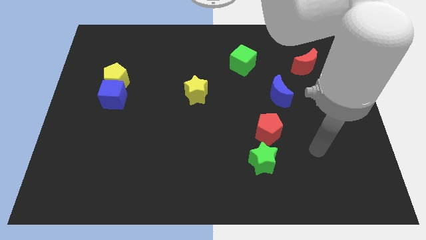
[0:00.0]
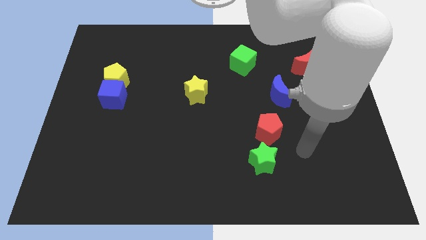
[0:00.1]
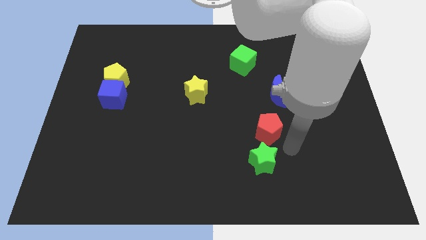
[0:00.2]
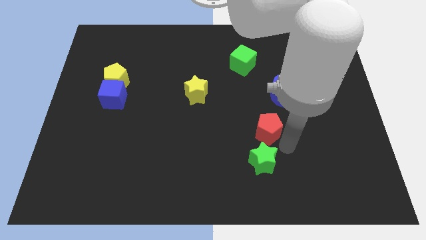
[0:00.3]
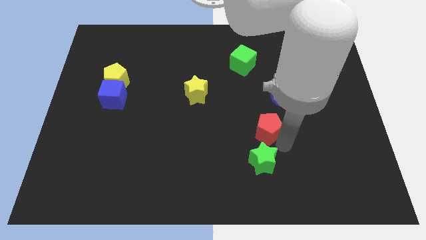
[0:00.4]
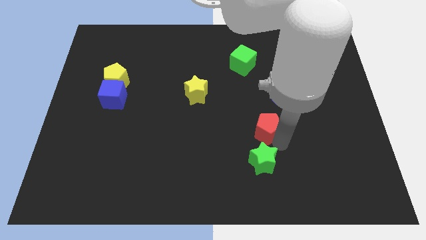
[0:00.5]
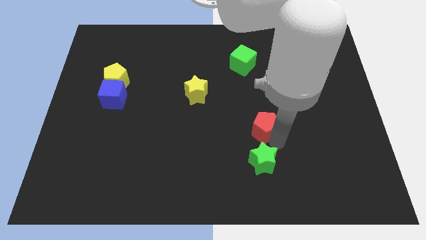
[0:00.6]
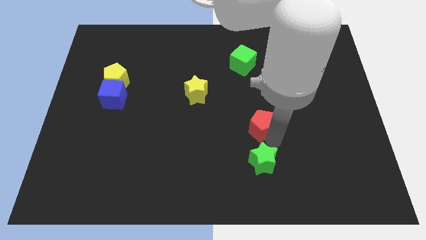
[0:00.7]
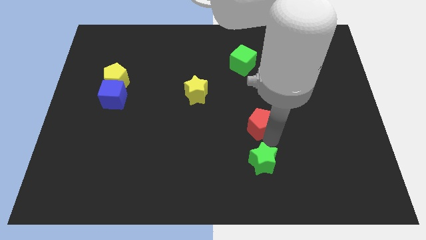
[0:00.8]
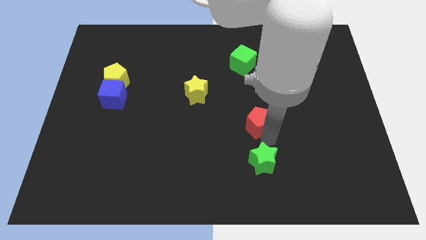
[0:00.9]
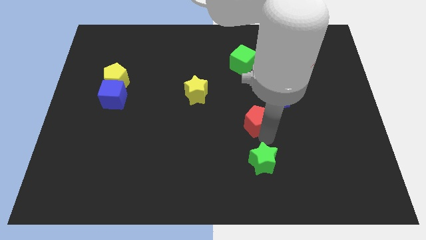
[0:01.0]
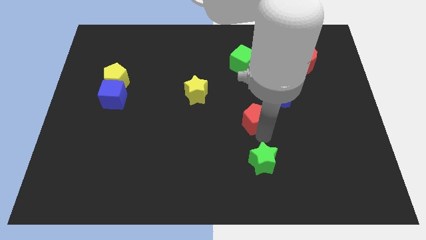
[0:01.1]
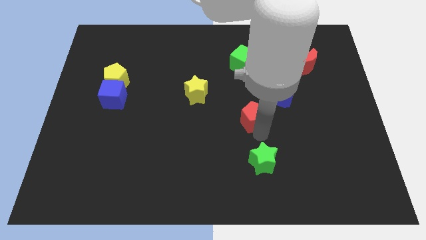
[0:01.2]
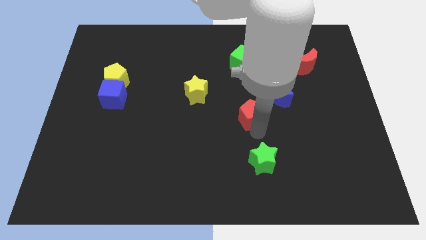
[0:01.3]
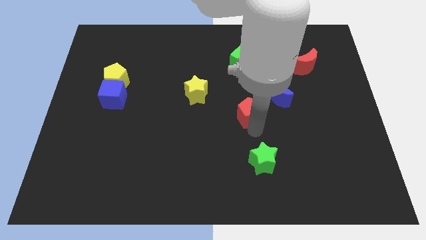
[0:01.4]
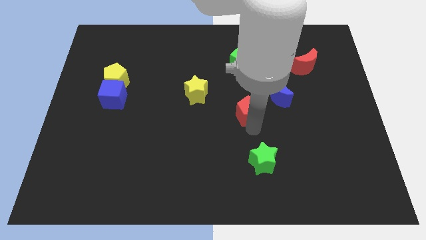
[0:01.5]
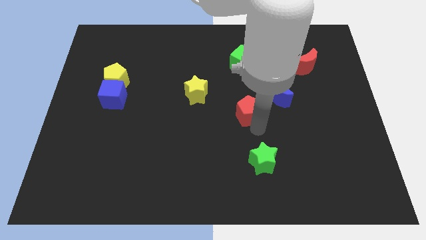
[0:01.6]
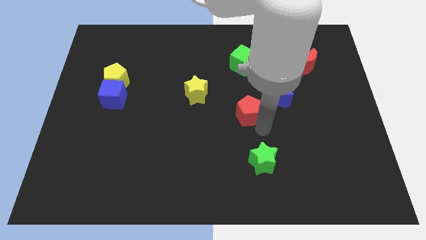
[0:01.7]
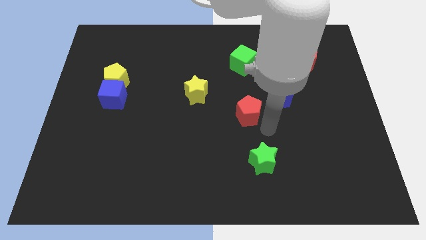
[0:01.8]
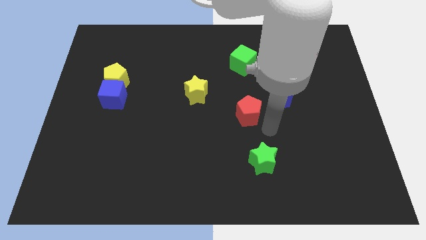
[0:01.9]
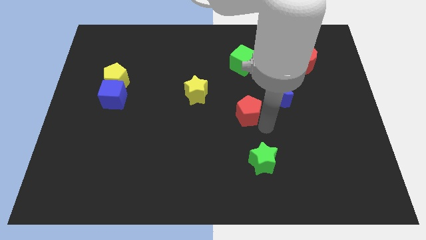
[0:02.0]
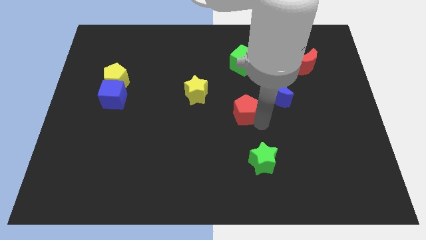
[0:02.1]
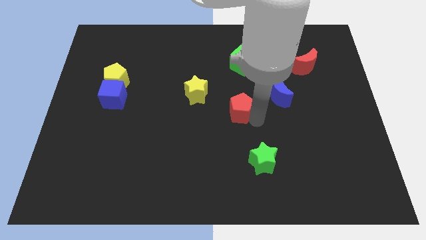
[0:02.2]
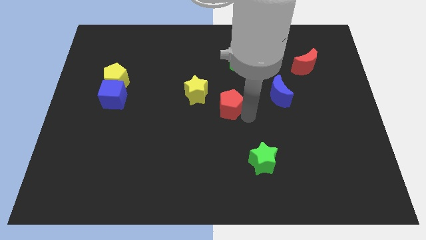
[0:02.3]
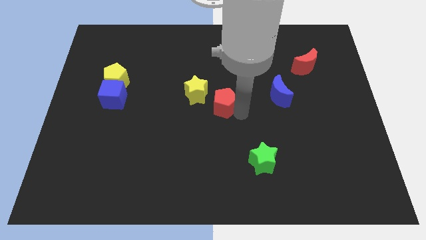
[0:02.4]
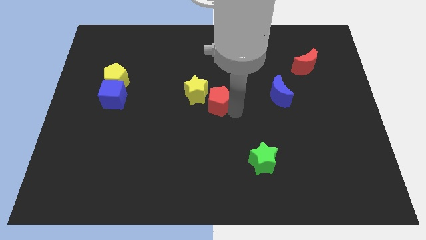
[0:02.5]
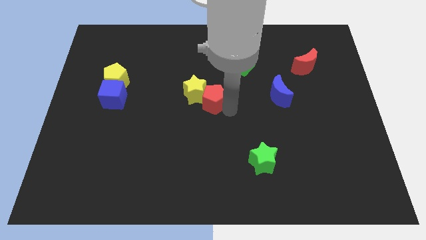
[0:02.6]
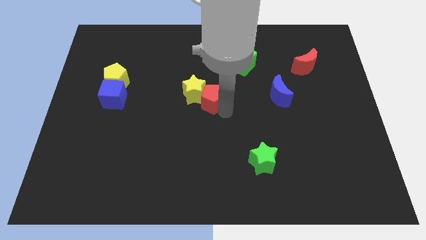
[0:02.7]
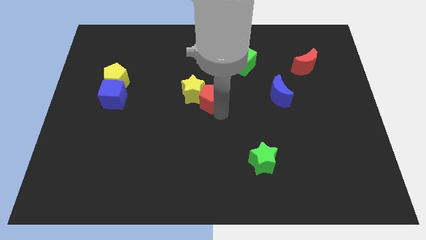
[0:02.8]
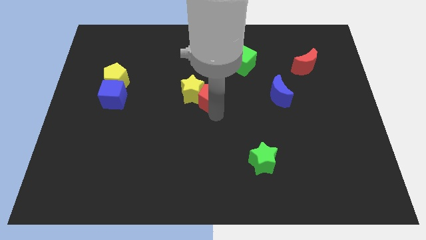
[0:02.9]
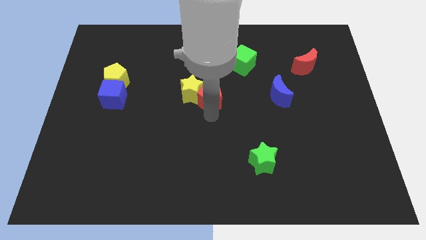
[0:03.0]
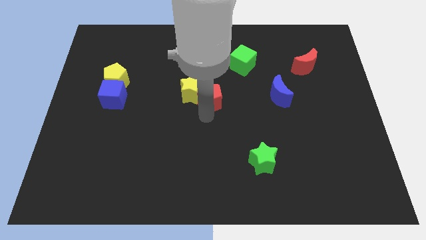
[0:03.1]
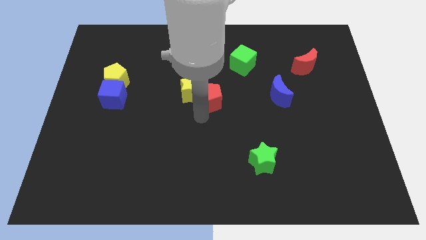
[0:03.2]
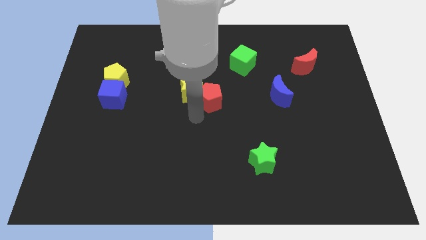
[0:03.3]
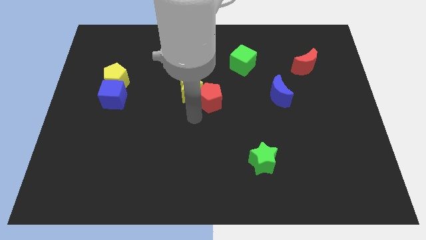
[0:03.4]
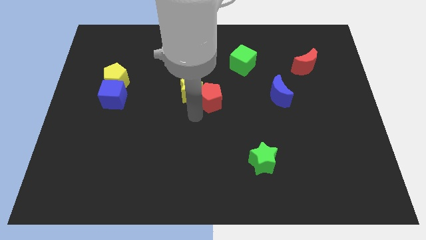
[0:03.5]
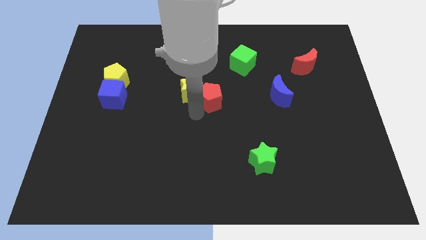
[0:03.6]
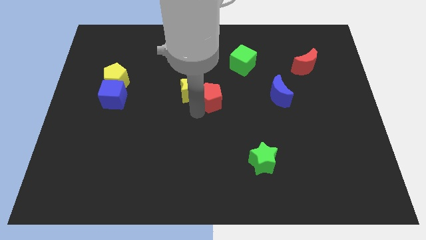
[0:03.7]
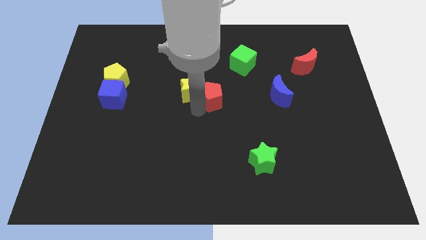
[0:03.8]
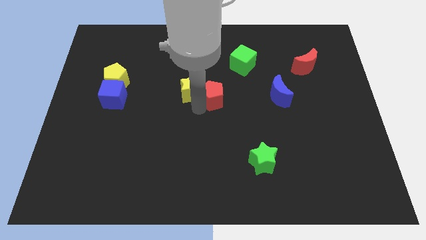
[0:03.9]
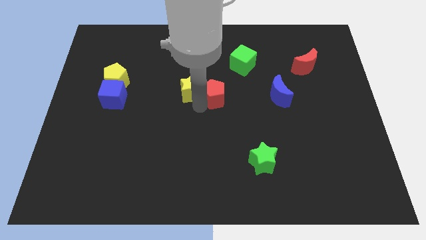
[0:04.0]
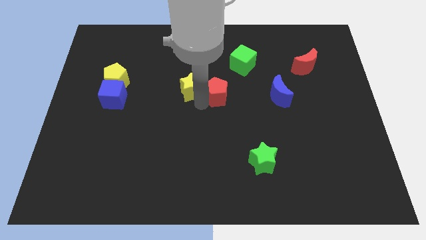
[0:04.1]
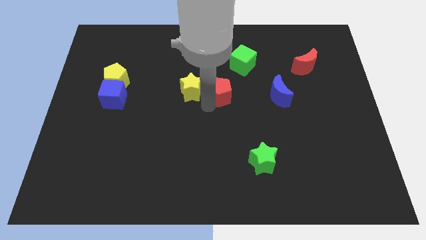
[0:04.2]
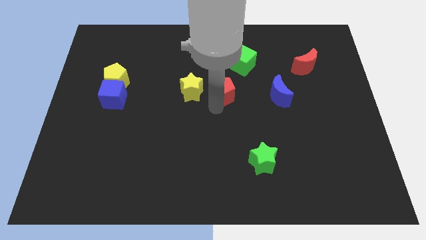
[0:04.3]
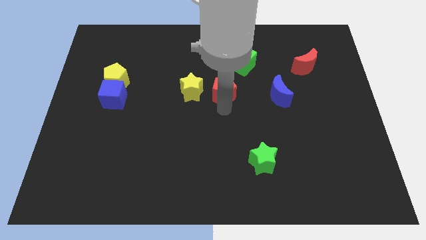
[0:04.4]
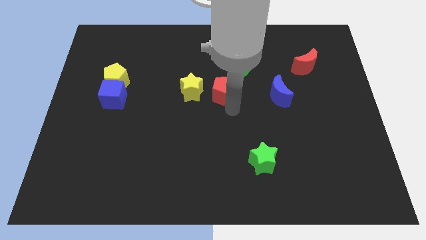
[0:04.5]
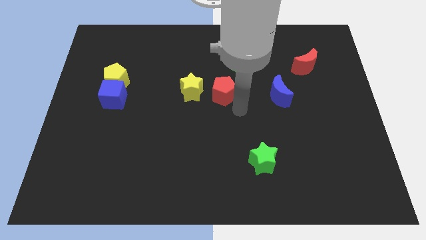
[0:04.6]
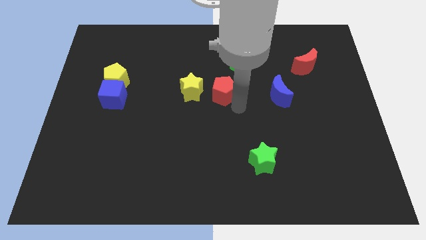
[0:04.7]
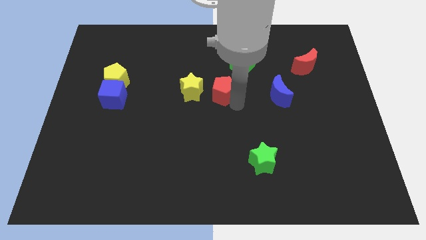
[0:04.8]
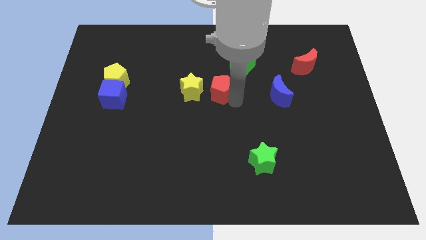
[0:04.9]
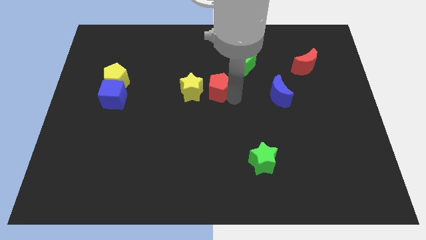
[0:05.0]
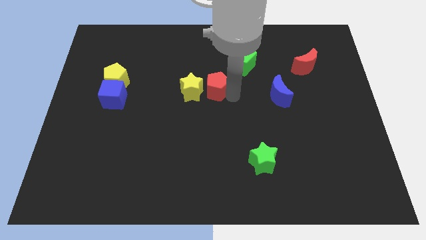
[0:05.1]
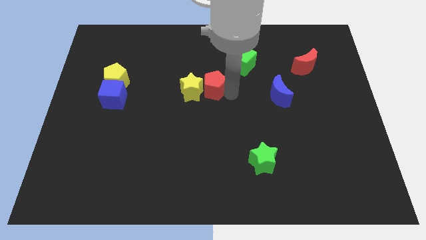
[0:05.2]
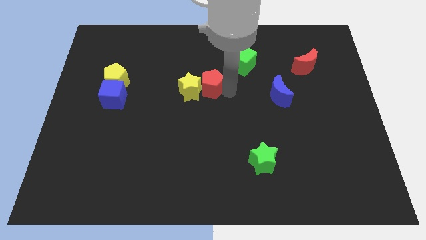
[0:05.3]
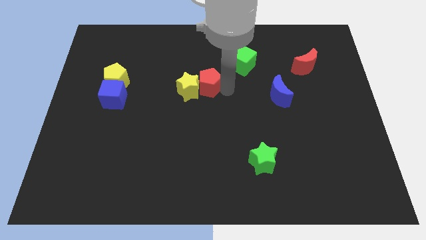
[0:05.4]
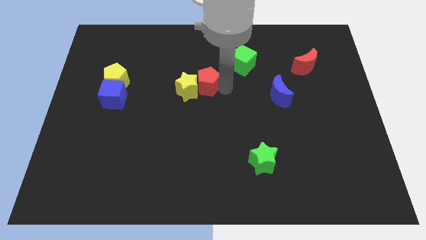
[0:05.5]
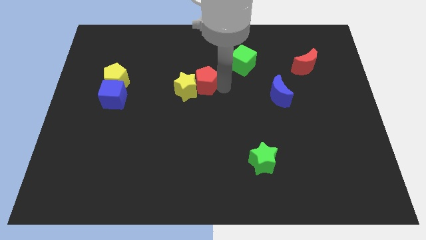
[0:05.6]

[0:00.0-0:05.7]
slide the red pentagon upwards and left diagonally

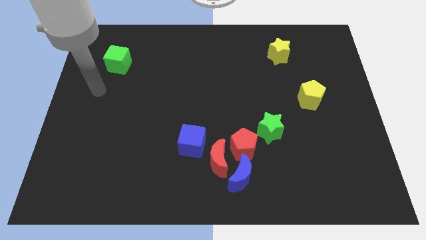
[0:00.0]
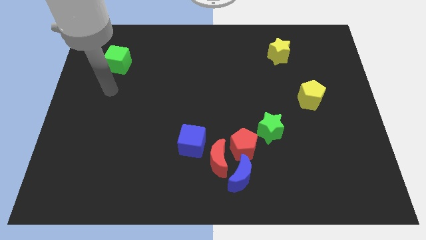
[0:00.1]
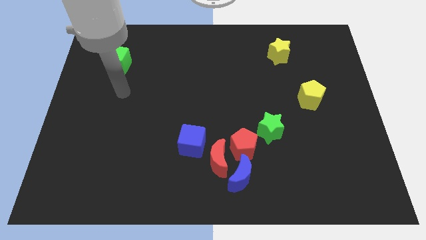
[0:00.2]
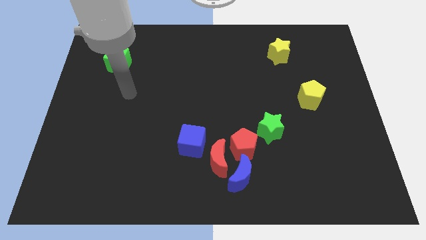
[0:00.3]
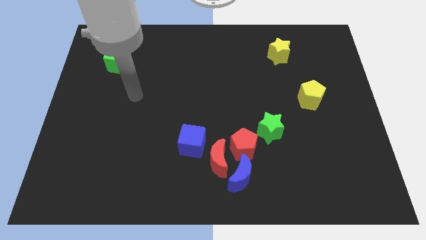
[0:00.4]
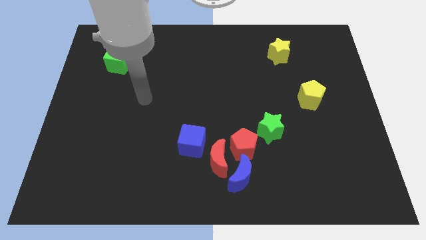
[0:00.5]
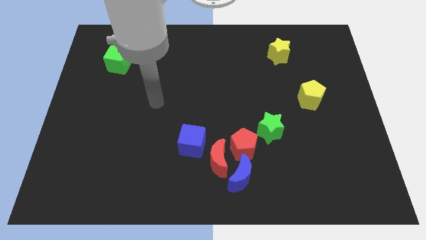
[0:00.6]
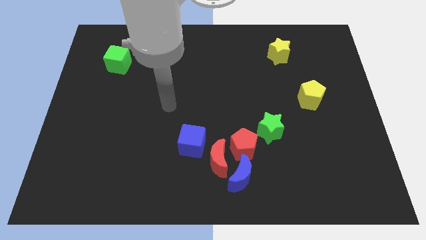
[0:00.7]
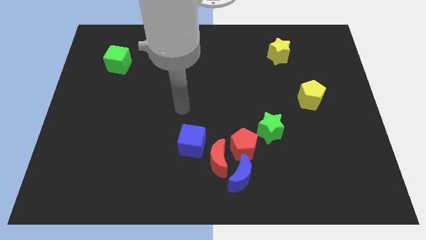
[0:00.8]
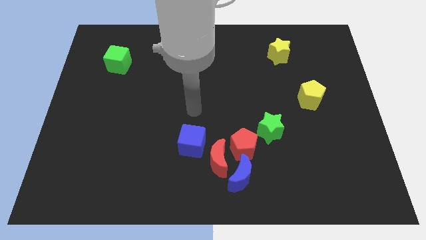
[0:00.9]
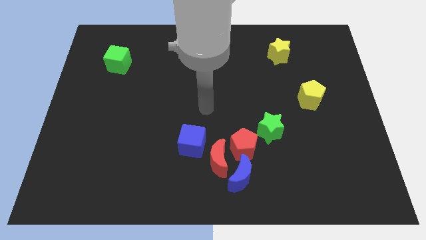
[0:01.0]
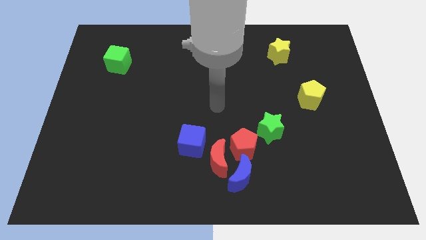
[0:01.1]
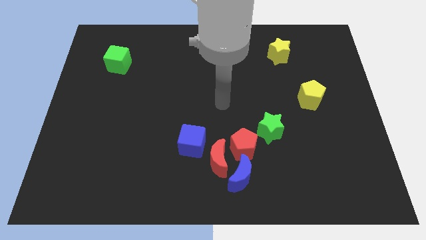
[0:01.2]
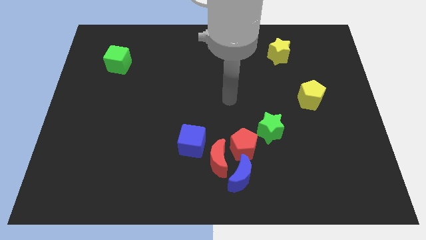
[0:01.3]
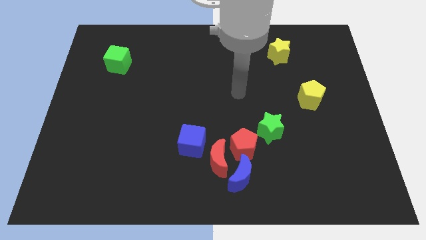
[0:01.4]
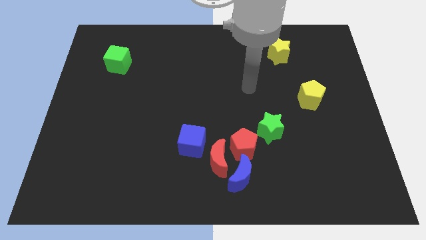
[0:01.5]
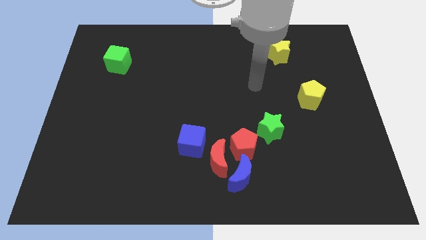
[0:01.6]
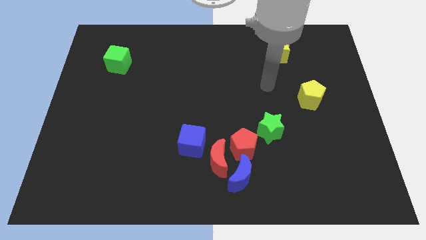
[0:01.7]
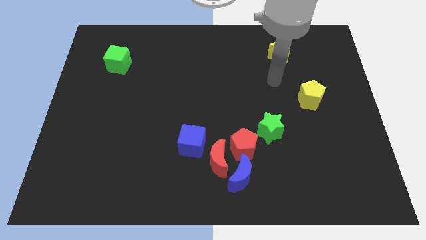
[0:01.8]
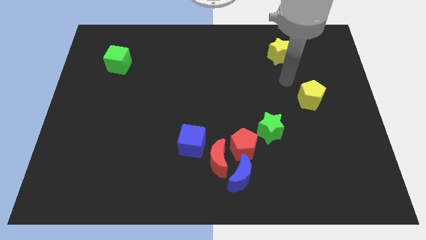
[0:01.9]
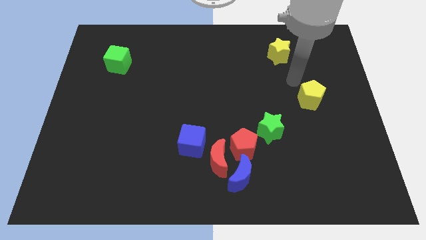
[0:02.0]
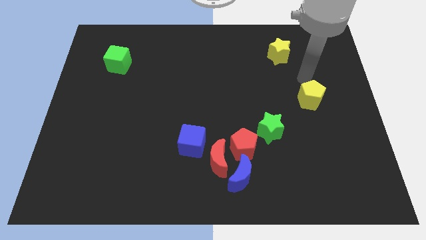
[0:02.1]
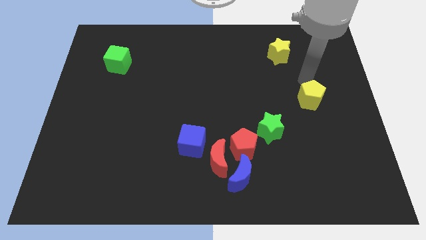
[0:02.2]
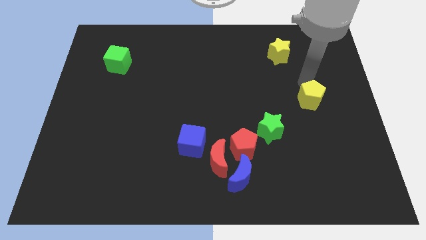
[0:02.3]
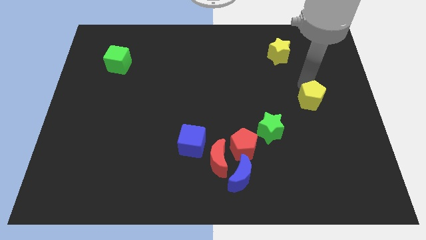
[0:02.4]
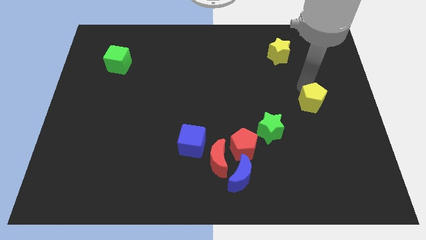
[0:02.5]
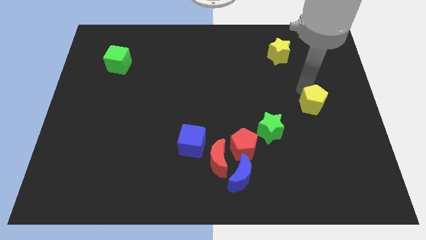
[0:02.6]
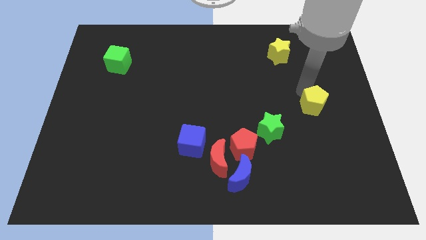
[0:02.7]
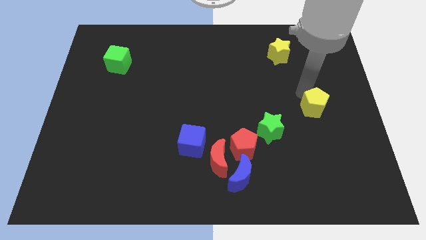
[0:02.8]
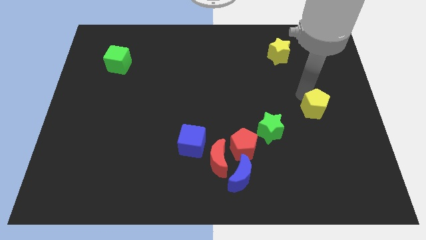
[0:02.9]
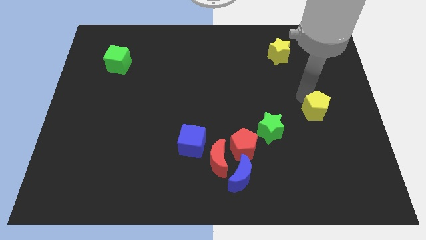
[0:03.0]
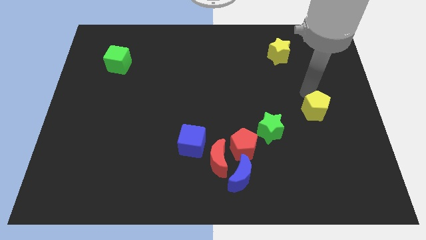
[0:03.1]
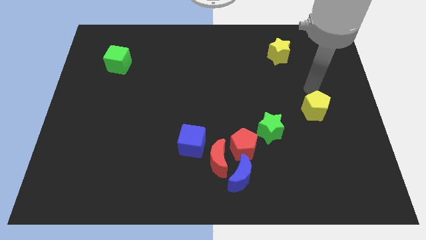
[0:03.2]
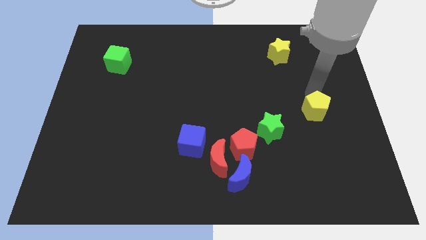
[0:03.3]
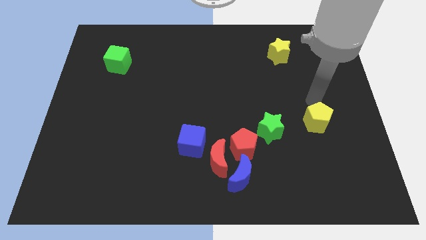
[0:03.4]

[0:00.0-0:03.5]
slide the yellow pentagon slightly down
